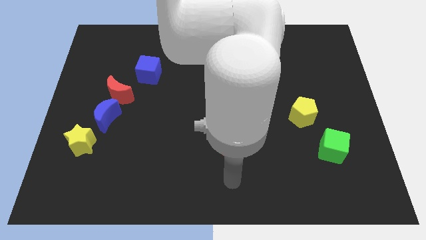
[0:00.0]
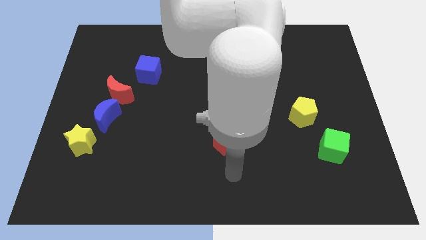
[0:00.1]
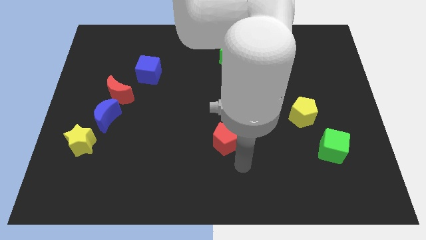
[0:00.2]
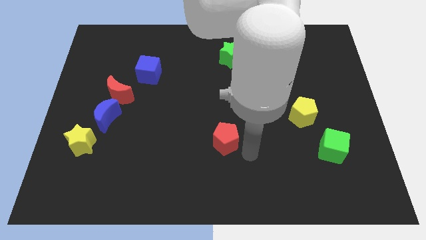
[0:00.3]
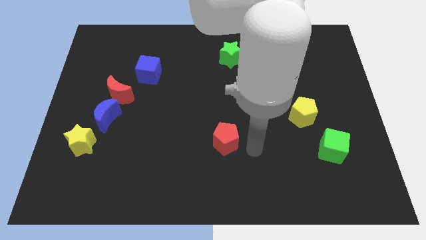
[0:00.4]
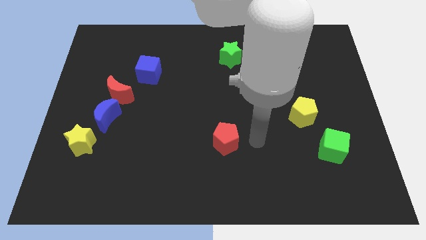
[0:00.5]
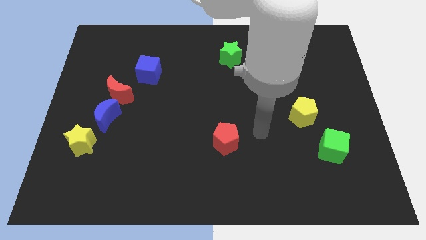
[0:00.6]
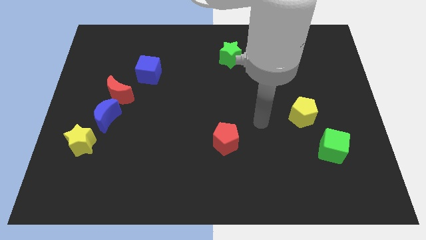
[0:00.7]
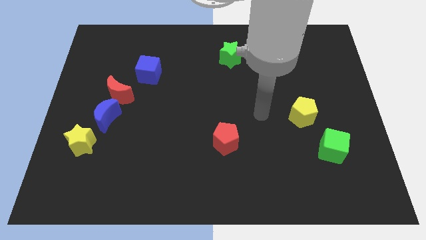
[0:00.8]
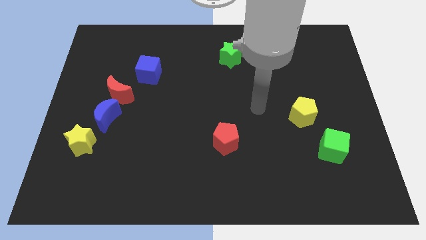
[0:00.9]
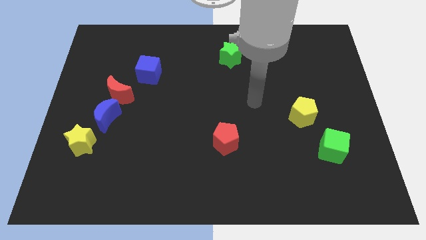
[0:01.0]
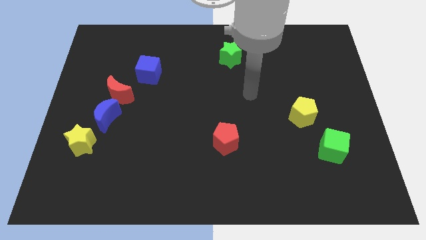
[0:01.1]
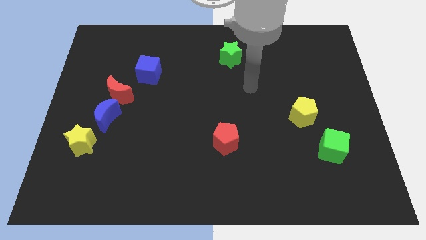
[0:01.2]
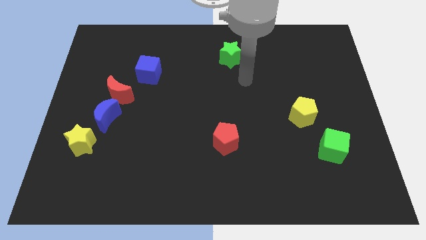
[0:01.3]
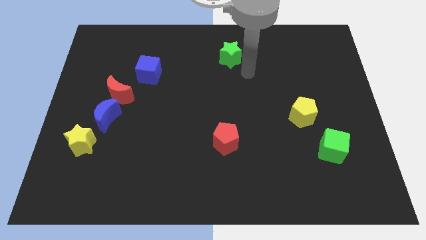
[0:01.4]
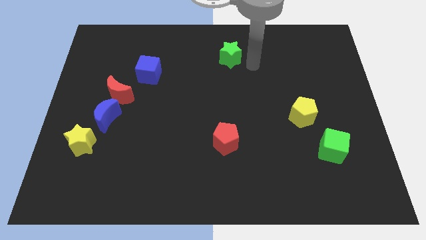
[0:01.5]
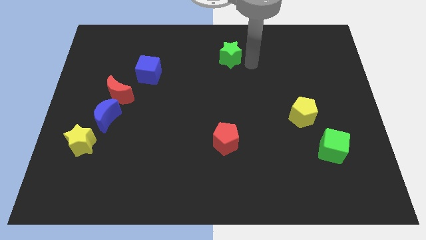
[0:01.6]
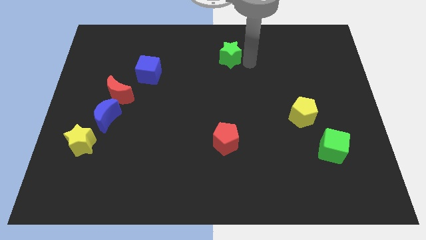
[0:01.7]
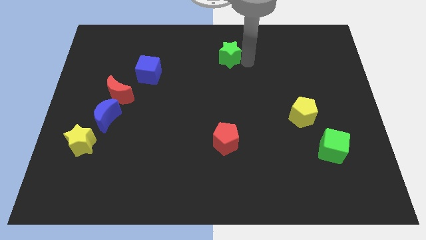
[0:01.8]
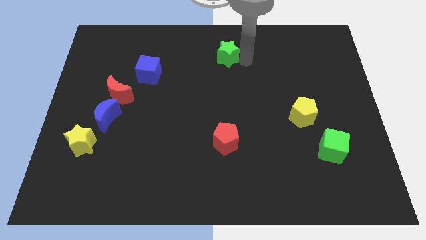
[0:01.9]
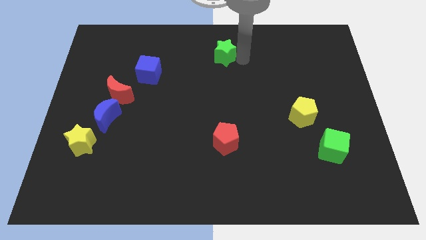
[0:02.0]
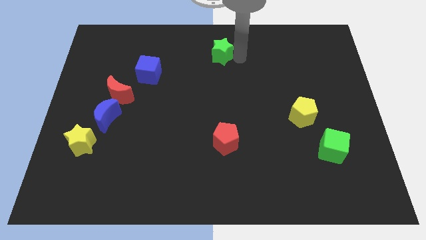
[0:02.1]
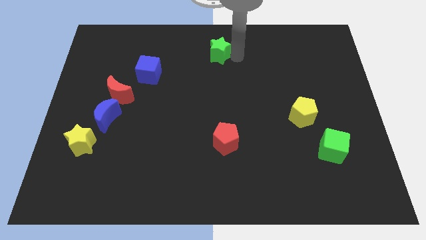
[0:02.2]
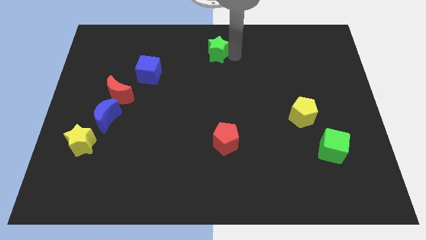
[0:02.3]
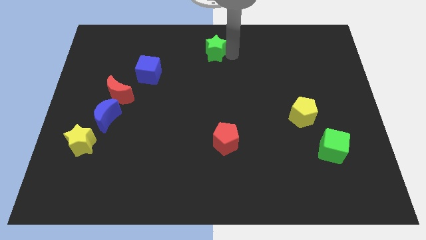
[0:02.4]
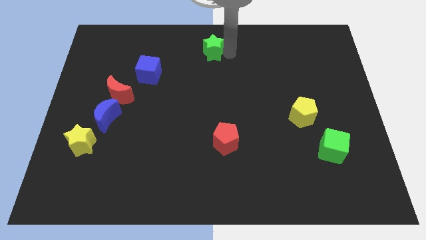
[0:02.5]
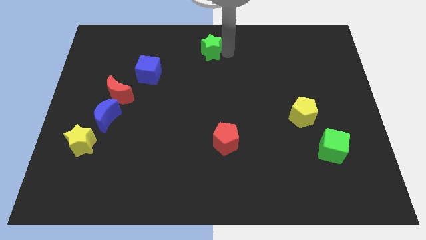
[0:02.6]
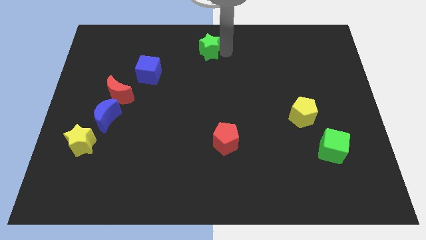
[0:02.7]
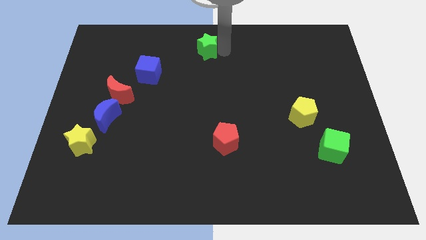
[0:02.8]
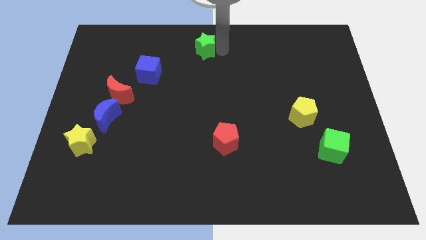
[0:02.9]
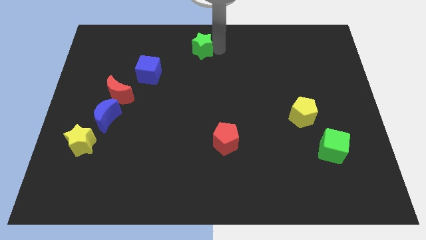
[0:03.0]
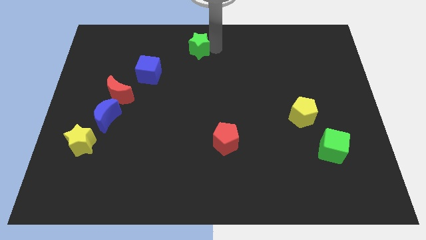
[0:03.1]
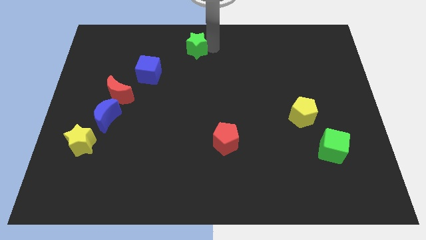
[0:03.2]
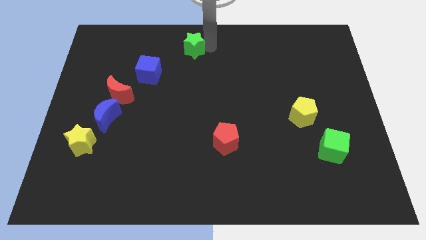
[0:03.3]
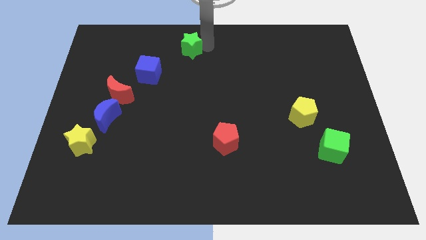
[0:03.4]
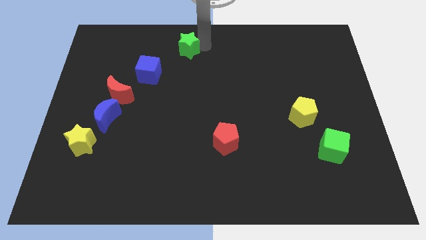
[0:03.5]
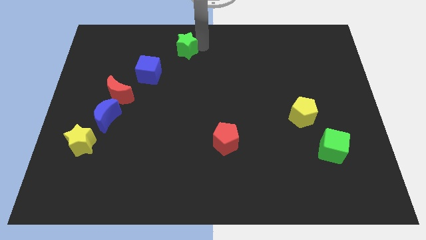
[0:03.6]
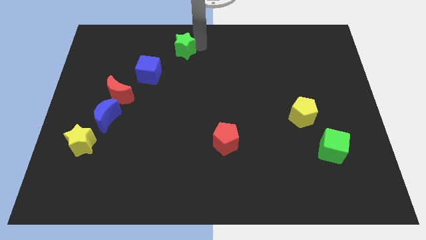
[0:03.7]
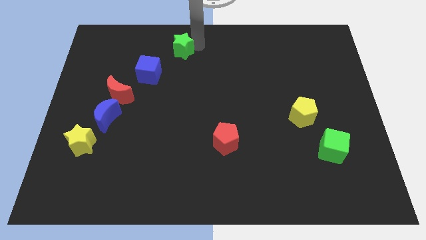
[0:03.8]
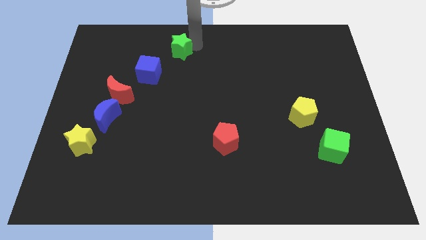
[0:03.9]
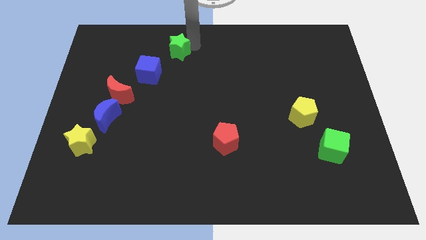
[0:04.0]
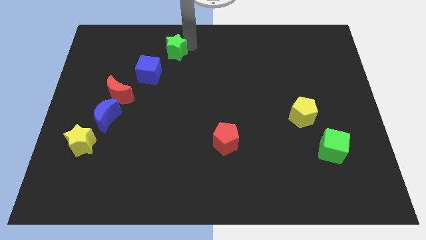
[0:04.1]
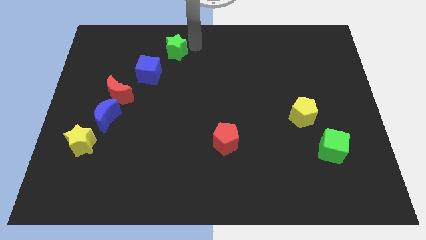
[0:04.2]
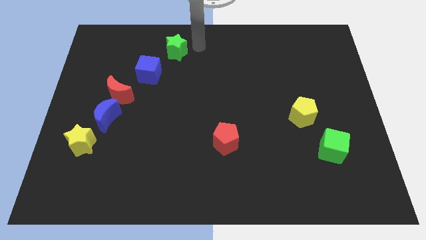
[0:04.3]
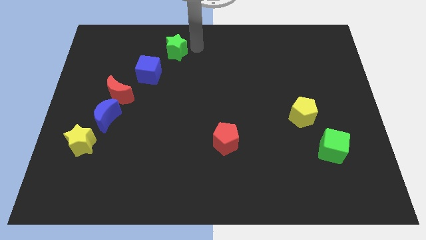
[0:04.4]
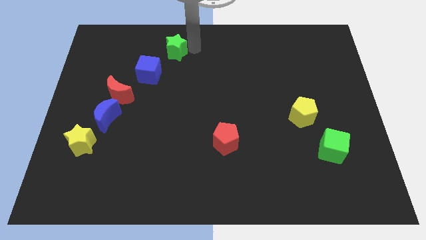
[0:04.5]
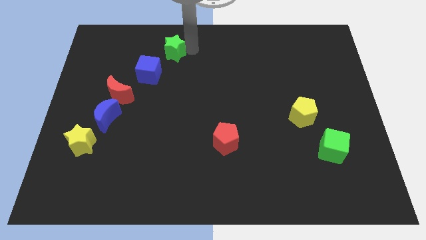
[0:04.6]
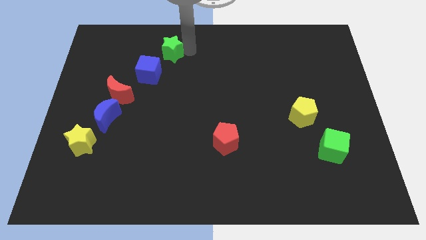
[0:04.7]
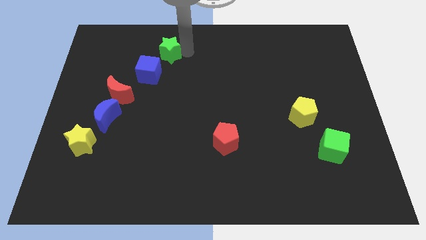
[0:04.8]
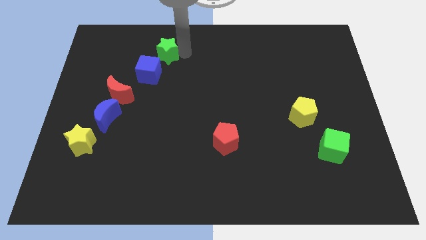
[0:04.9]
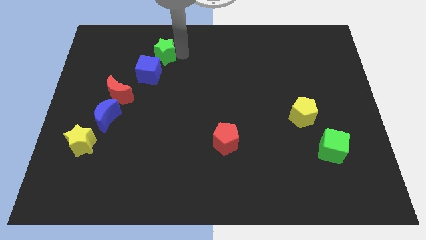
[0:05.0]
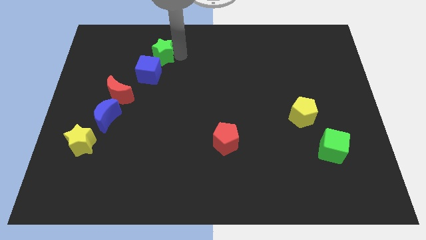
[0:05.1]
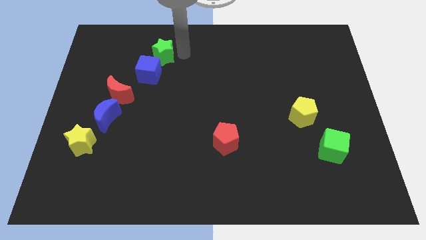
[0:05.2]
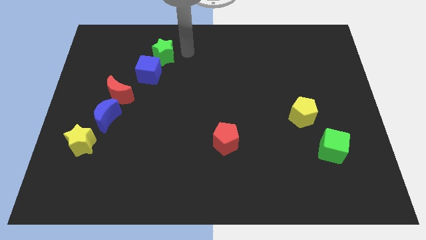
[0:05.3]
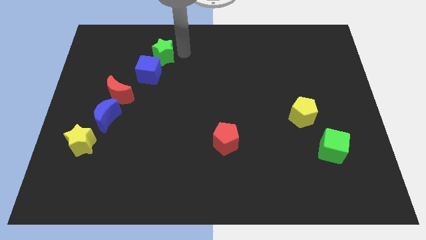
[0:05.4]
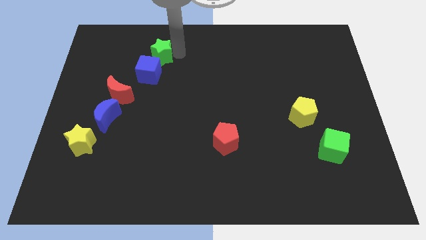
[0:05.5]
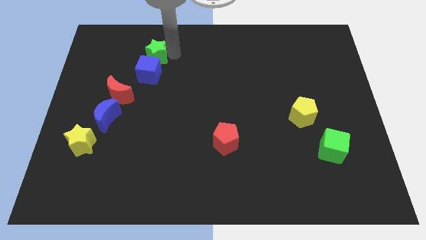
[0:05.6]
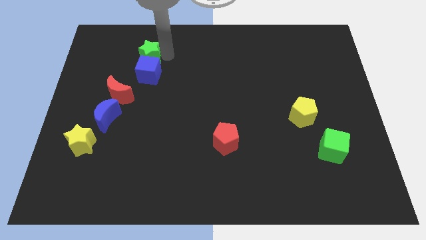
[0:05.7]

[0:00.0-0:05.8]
move the green star diagonally up and to the left of the blue cube
